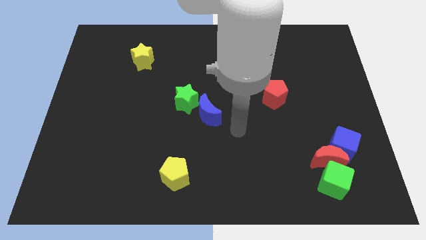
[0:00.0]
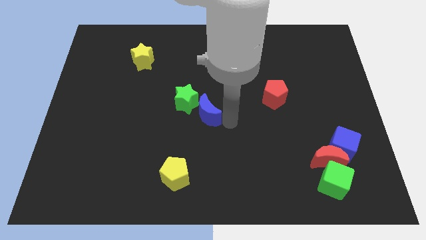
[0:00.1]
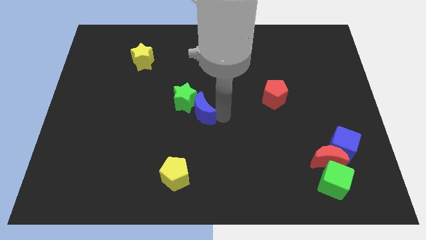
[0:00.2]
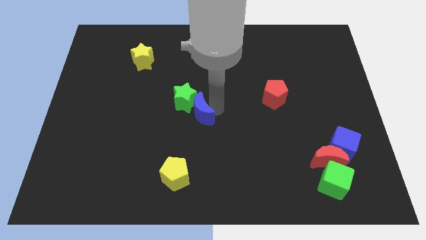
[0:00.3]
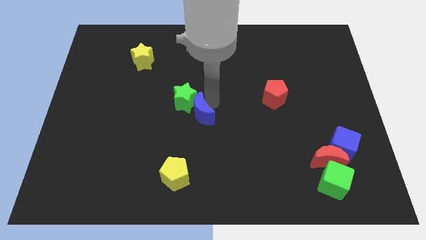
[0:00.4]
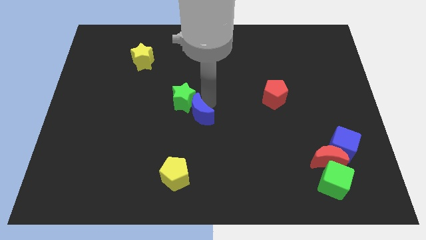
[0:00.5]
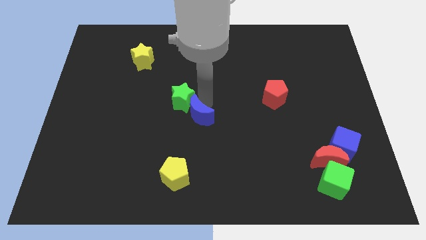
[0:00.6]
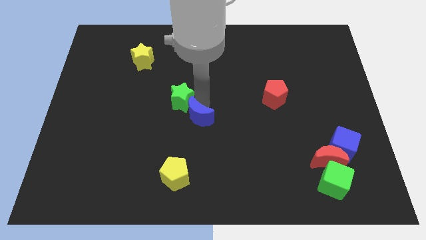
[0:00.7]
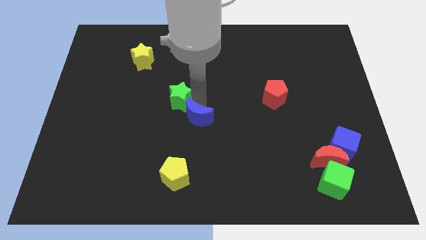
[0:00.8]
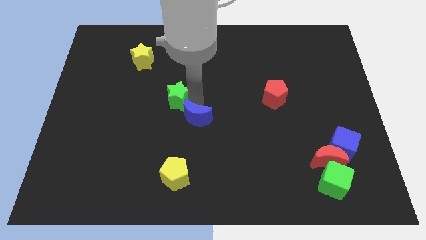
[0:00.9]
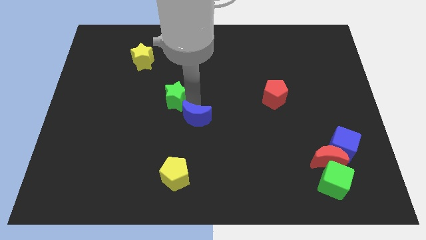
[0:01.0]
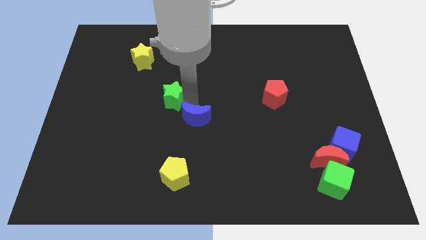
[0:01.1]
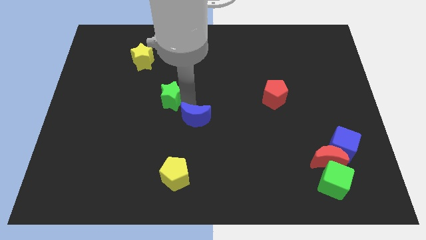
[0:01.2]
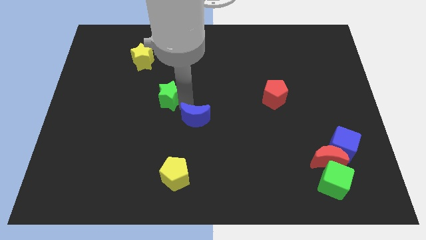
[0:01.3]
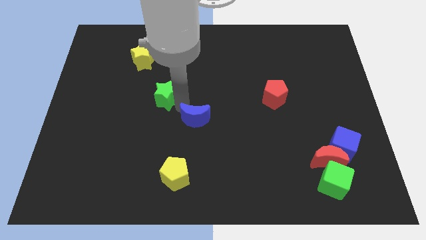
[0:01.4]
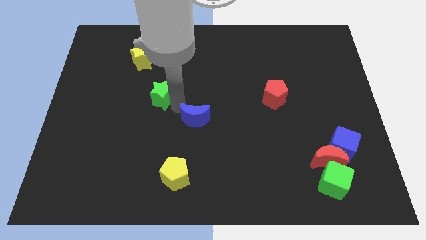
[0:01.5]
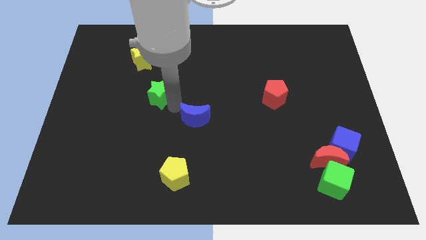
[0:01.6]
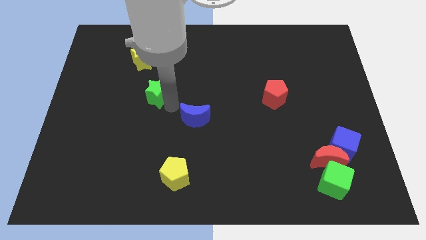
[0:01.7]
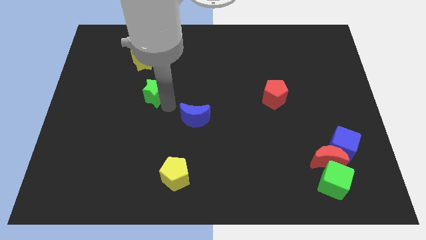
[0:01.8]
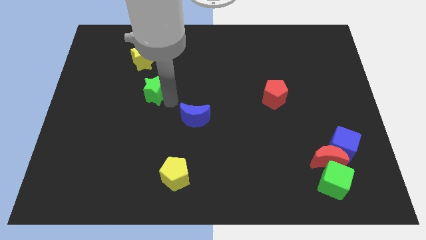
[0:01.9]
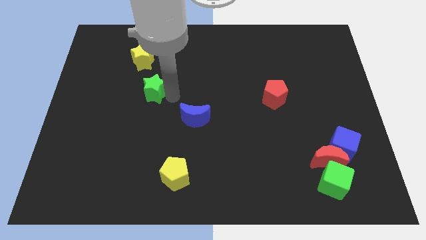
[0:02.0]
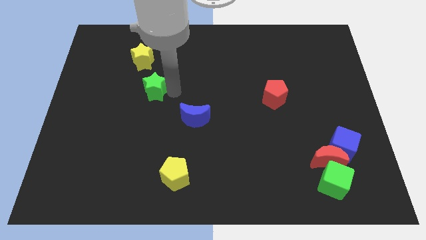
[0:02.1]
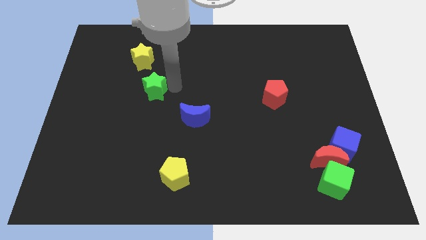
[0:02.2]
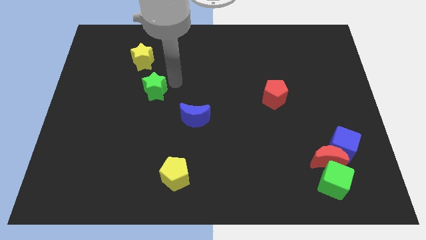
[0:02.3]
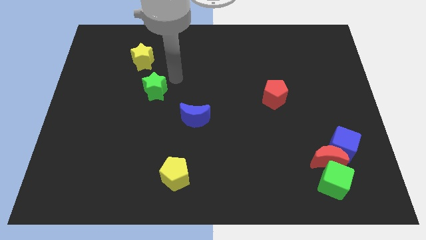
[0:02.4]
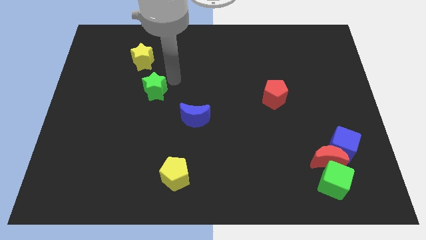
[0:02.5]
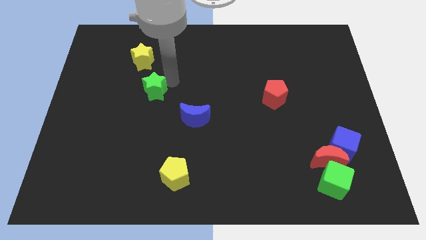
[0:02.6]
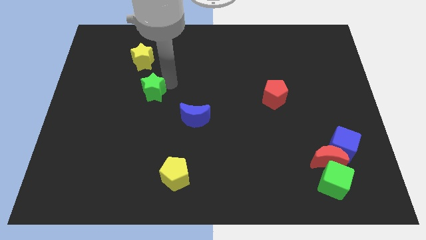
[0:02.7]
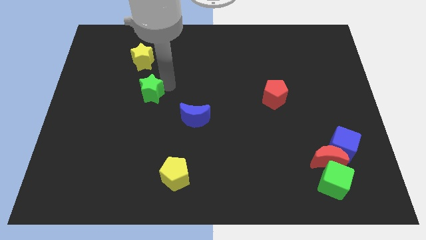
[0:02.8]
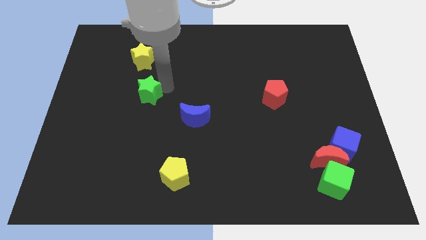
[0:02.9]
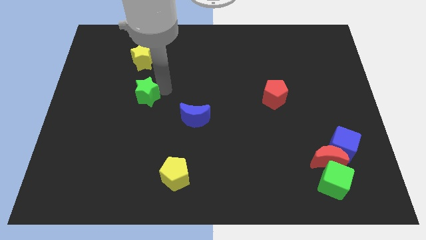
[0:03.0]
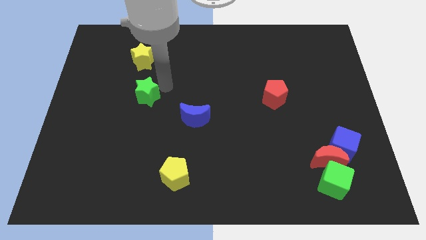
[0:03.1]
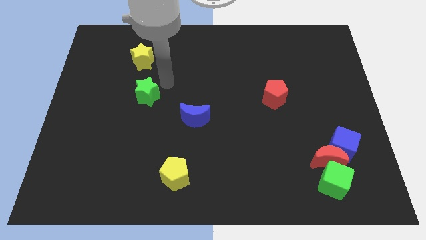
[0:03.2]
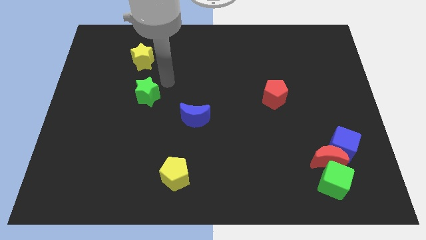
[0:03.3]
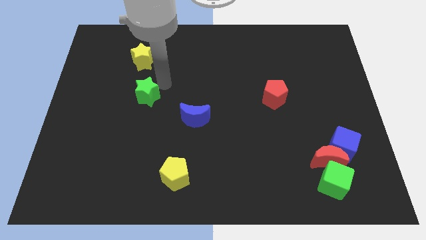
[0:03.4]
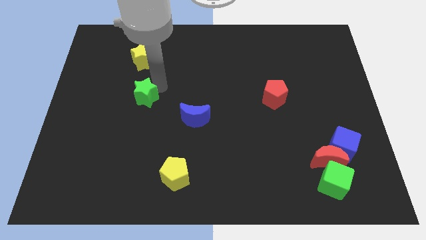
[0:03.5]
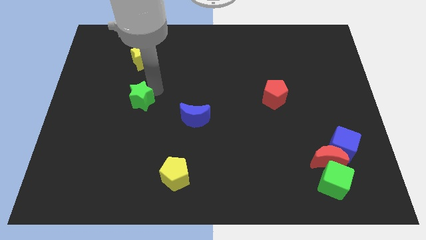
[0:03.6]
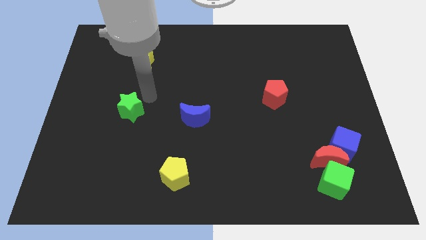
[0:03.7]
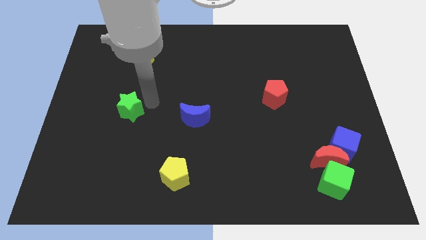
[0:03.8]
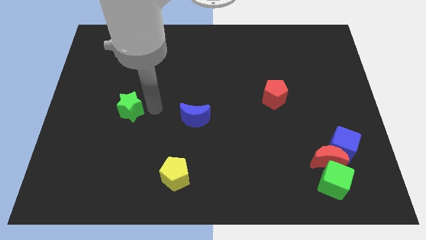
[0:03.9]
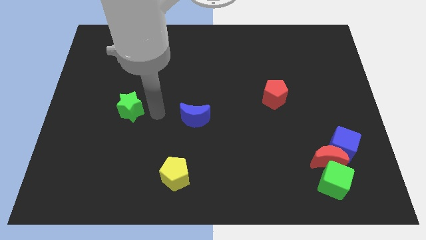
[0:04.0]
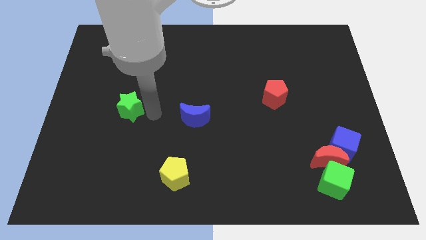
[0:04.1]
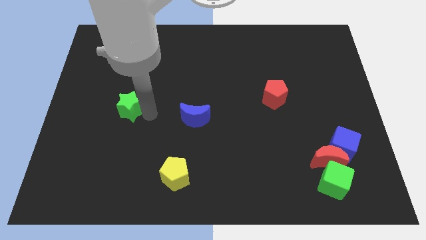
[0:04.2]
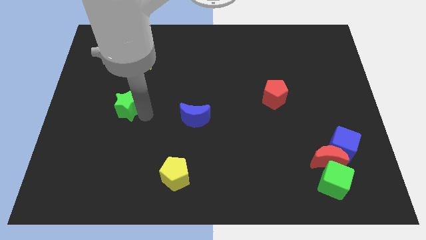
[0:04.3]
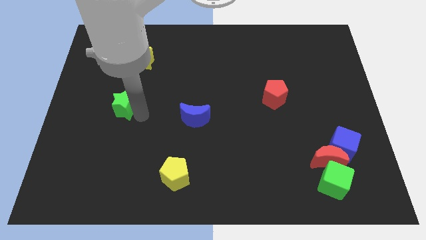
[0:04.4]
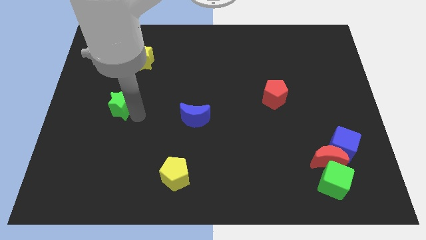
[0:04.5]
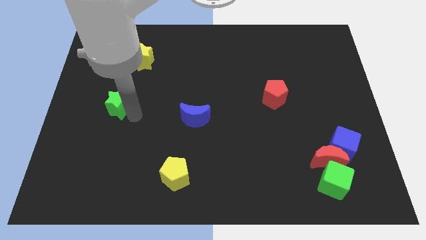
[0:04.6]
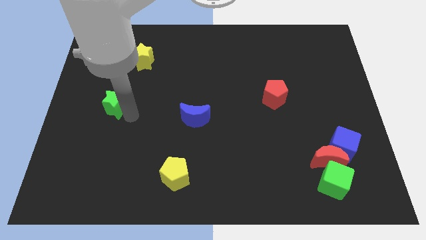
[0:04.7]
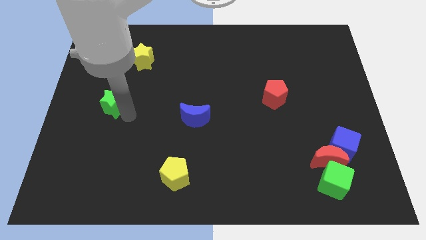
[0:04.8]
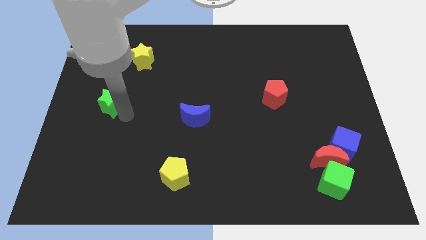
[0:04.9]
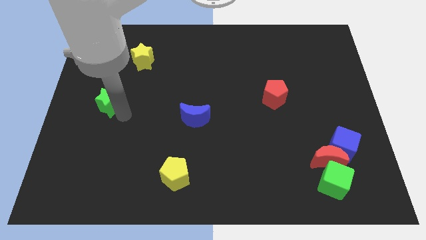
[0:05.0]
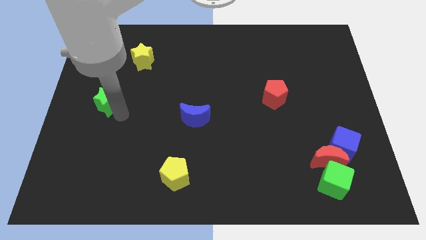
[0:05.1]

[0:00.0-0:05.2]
slide the green star to the left side
